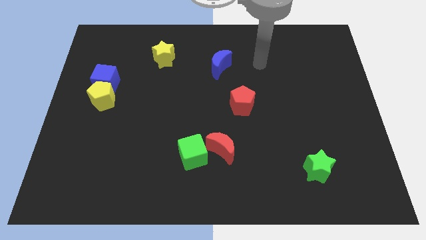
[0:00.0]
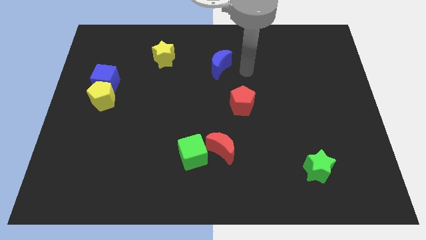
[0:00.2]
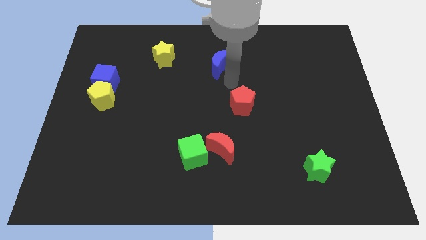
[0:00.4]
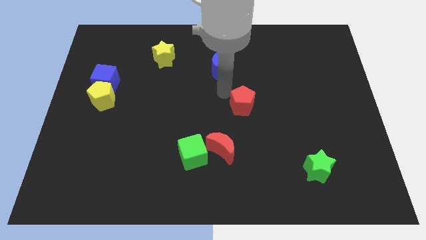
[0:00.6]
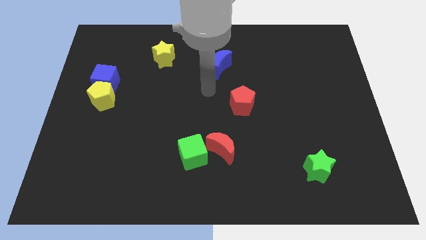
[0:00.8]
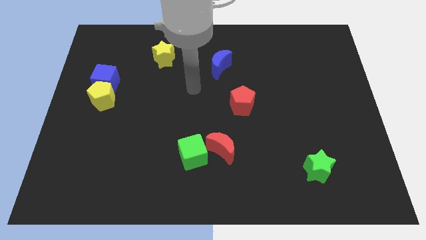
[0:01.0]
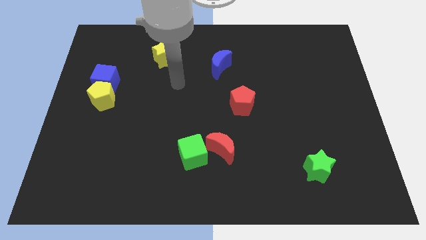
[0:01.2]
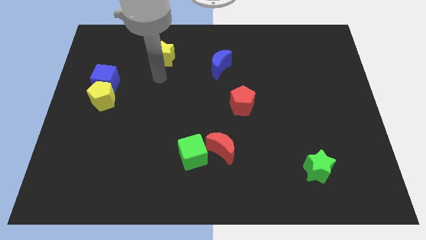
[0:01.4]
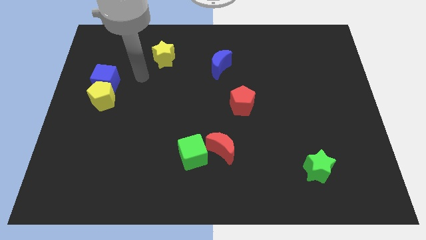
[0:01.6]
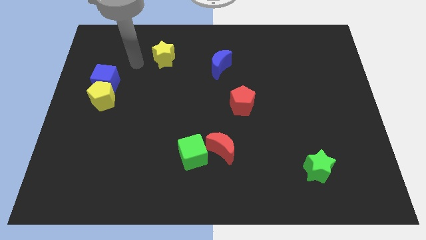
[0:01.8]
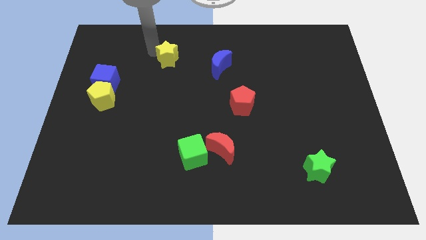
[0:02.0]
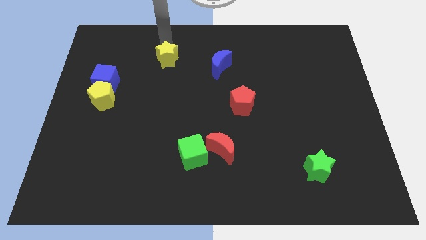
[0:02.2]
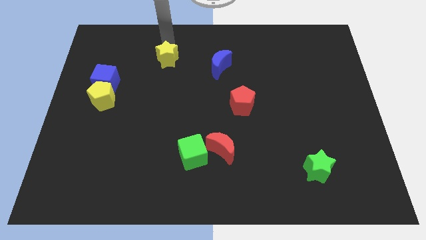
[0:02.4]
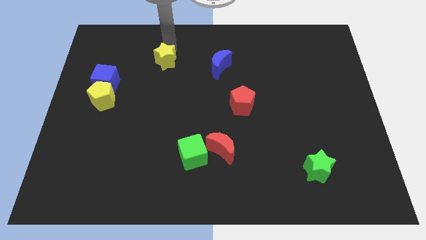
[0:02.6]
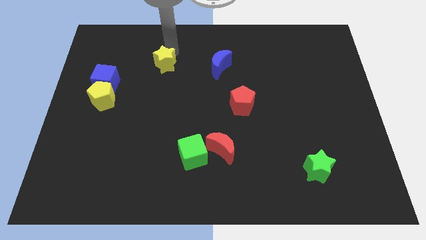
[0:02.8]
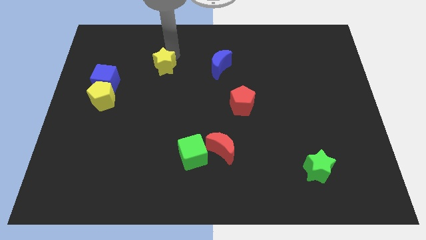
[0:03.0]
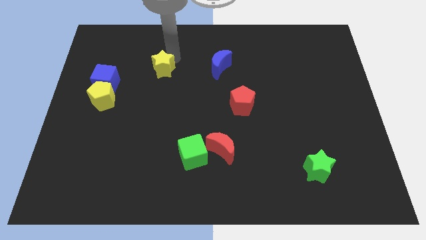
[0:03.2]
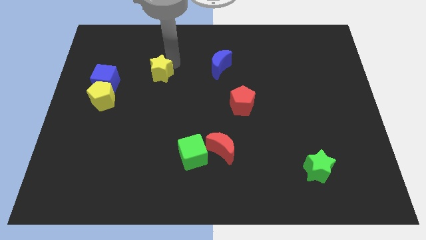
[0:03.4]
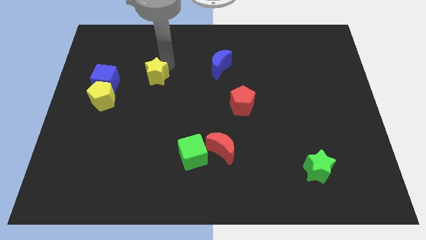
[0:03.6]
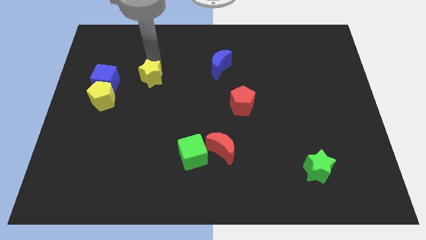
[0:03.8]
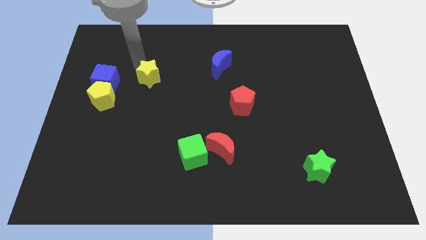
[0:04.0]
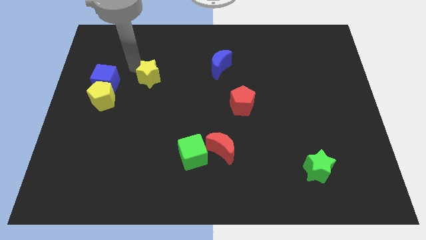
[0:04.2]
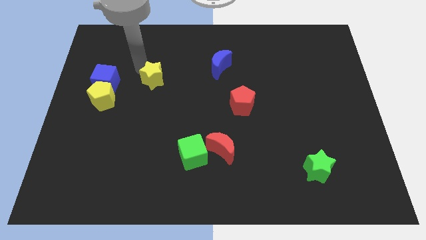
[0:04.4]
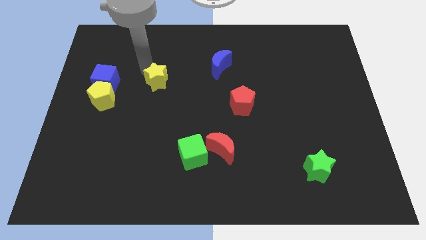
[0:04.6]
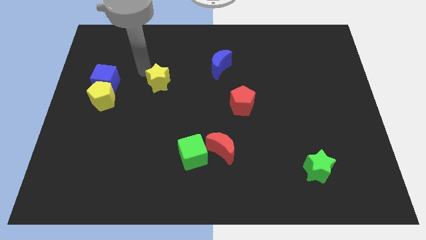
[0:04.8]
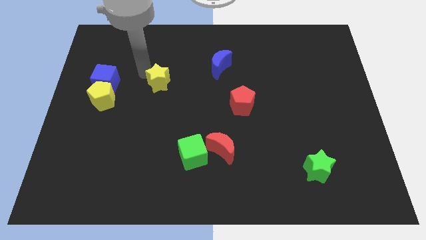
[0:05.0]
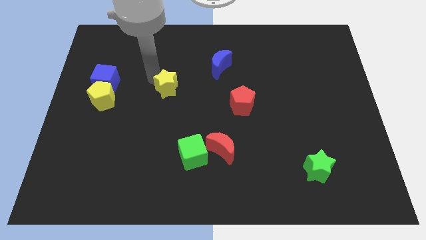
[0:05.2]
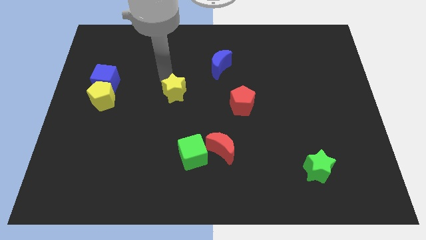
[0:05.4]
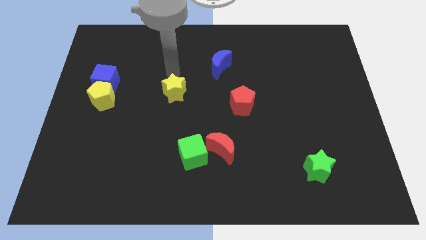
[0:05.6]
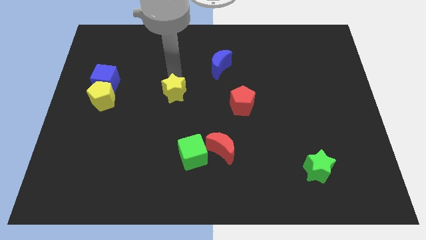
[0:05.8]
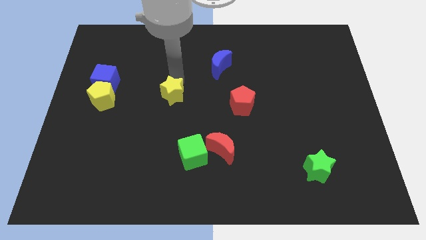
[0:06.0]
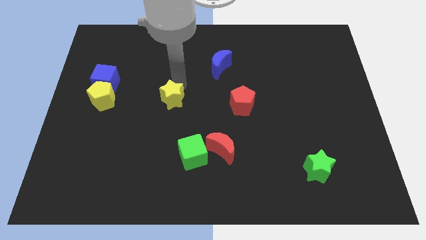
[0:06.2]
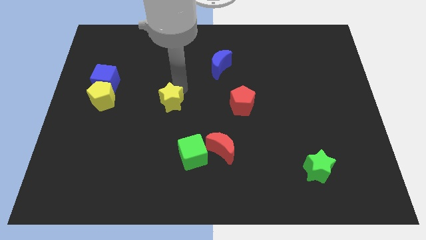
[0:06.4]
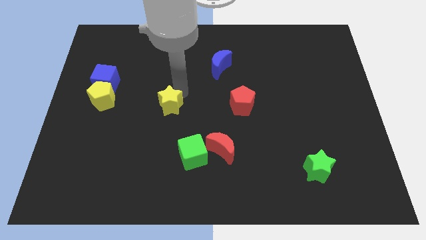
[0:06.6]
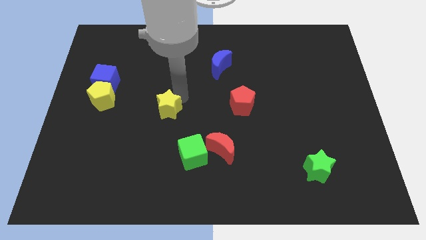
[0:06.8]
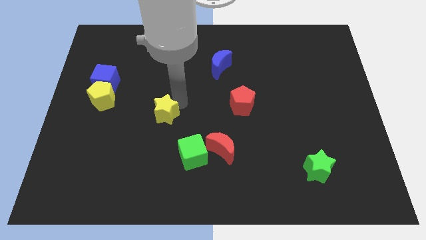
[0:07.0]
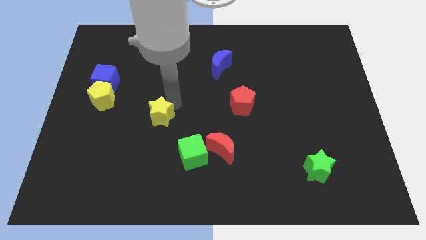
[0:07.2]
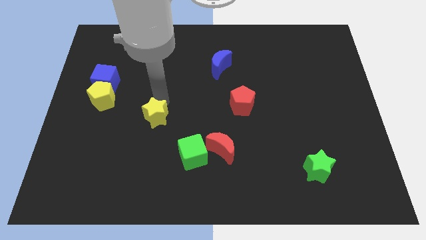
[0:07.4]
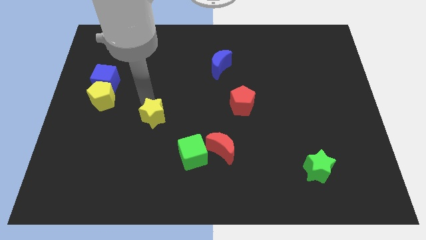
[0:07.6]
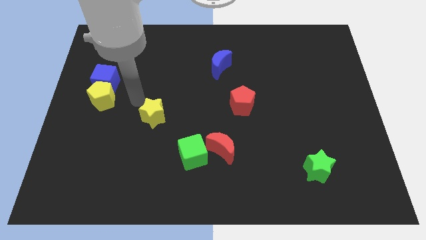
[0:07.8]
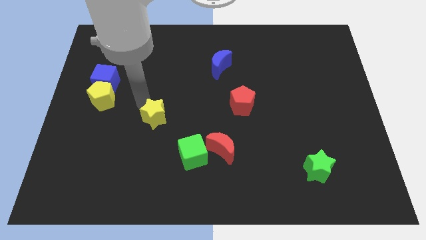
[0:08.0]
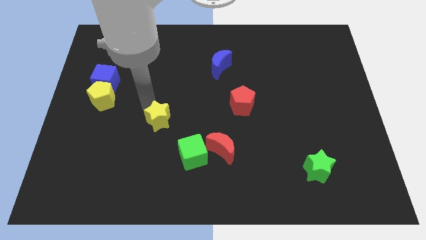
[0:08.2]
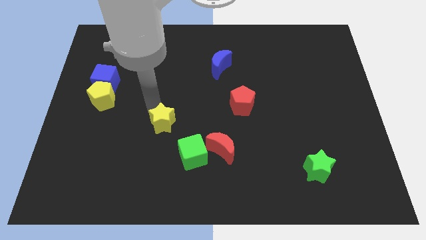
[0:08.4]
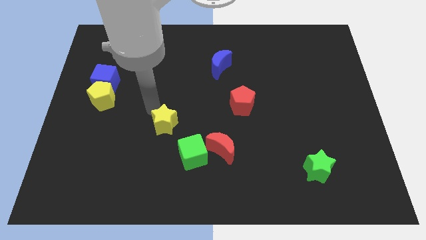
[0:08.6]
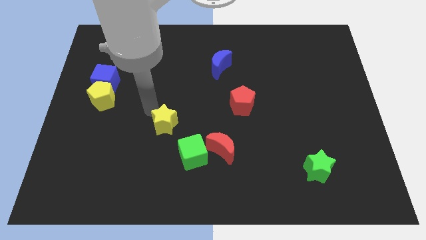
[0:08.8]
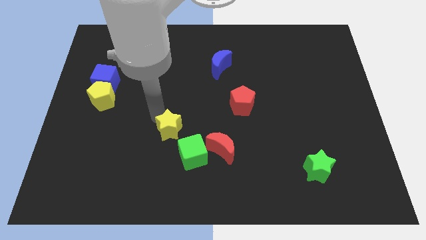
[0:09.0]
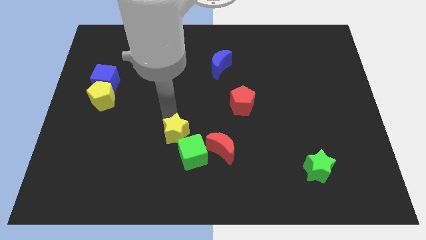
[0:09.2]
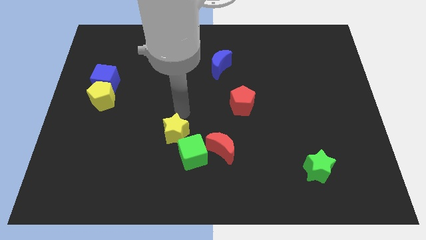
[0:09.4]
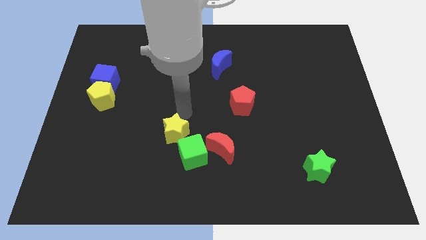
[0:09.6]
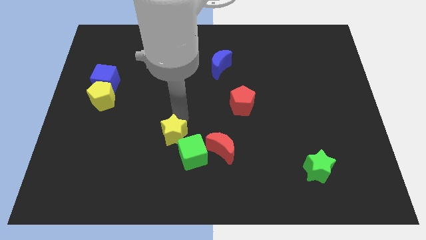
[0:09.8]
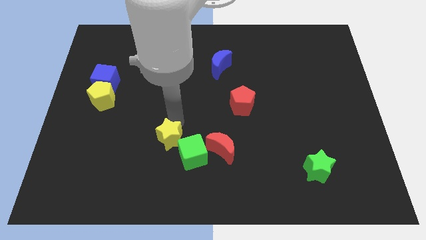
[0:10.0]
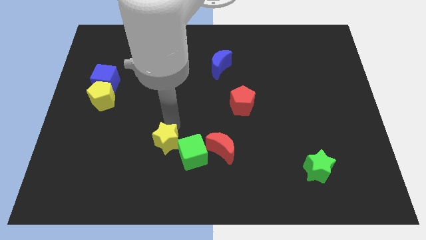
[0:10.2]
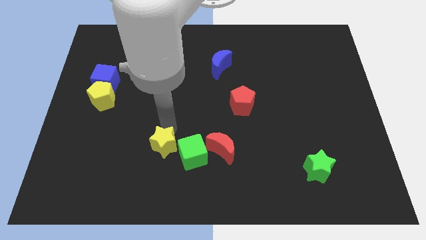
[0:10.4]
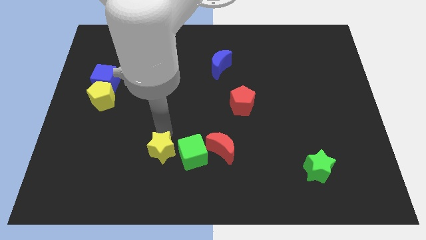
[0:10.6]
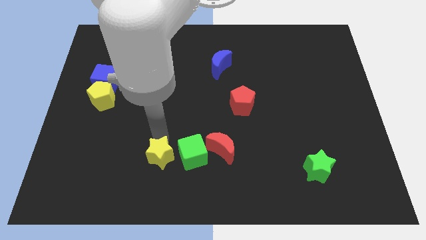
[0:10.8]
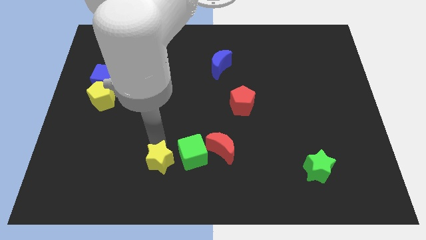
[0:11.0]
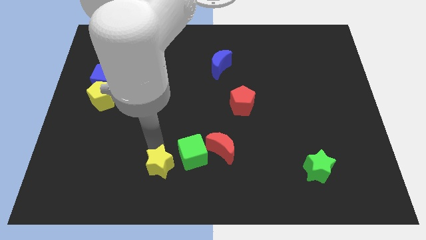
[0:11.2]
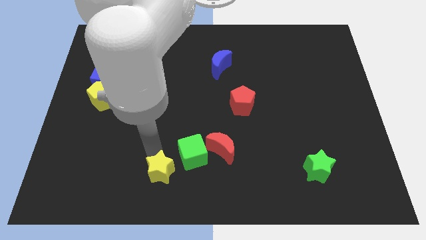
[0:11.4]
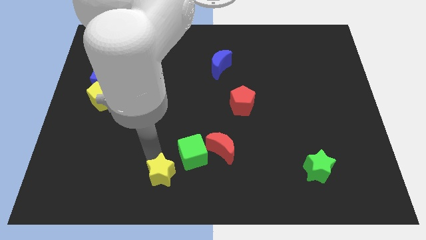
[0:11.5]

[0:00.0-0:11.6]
move the yellow star to the bottom side
